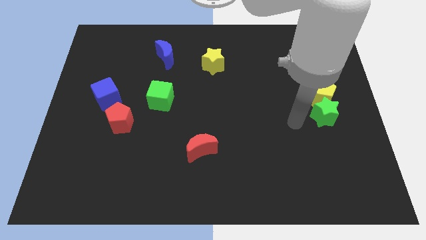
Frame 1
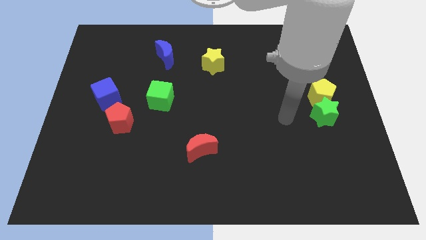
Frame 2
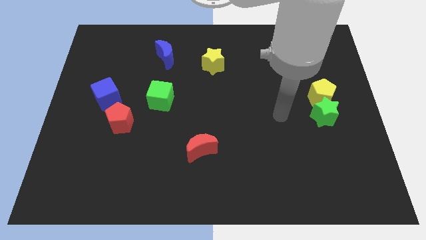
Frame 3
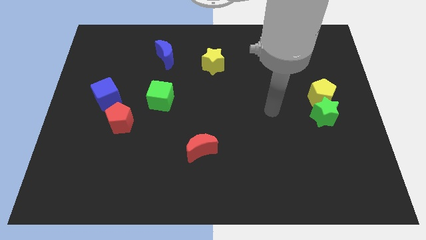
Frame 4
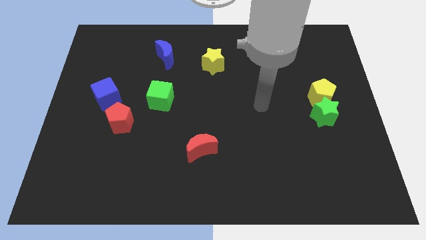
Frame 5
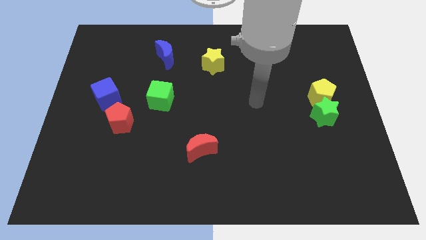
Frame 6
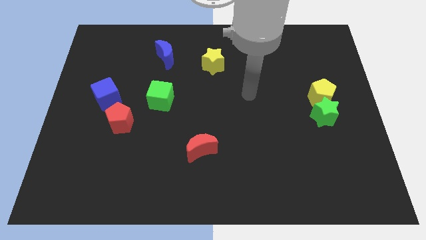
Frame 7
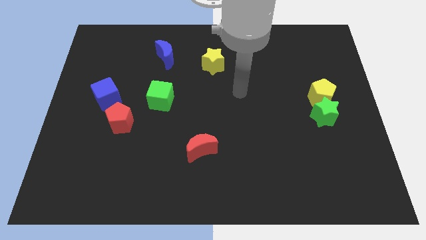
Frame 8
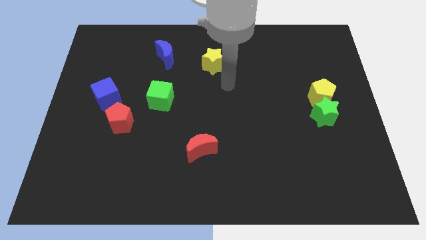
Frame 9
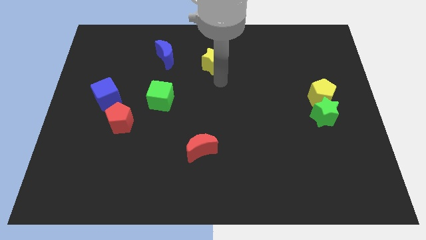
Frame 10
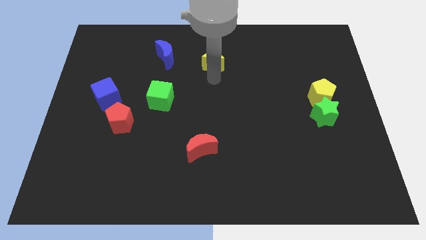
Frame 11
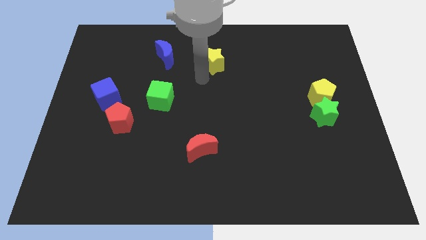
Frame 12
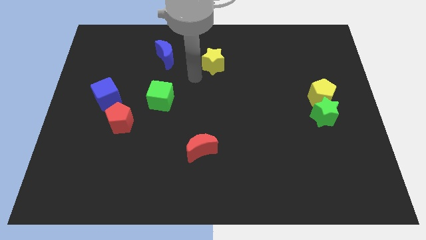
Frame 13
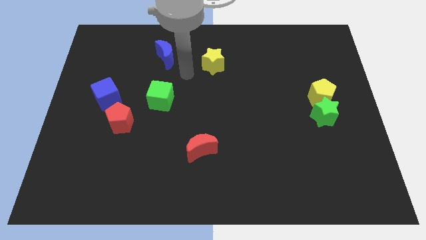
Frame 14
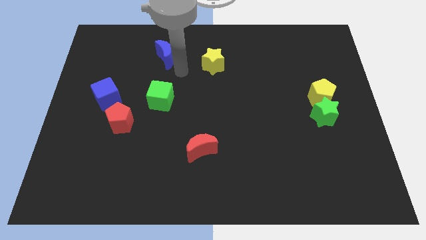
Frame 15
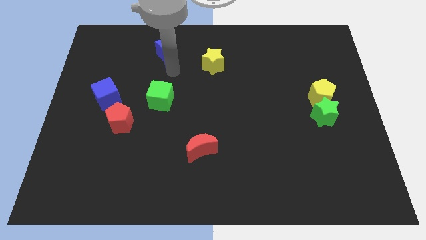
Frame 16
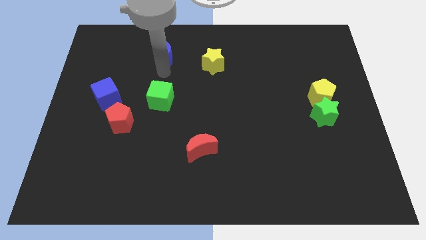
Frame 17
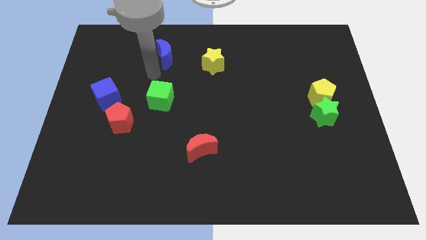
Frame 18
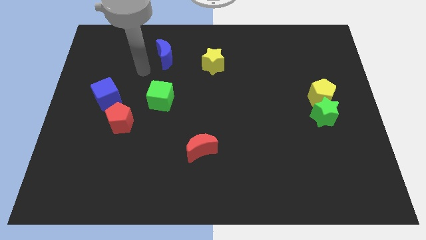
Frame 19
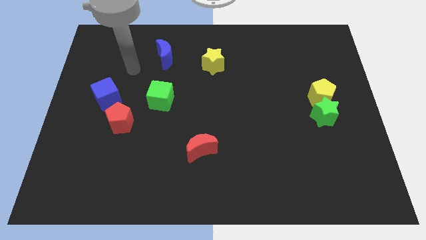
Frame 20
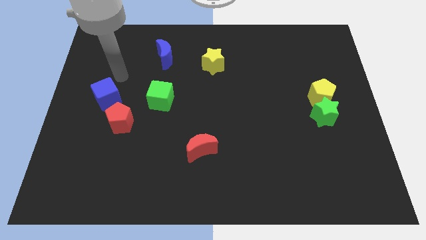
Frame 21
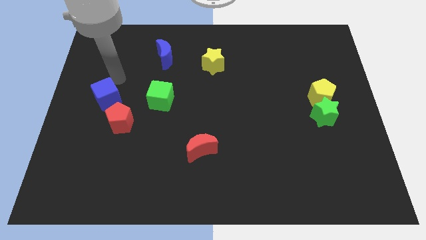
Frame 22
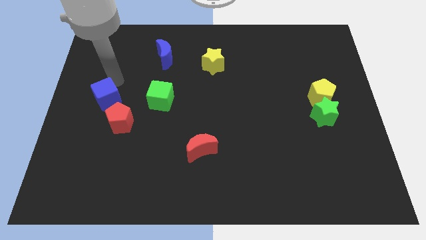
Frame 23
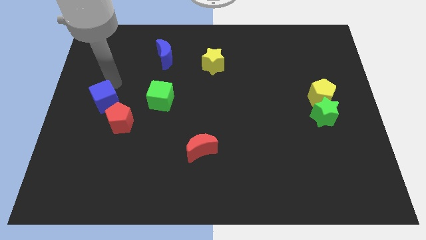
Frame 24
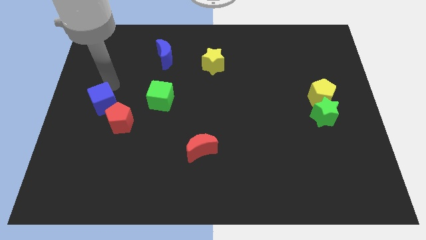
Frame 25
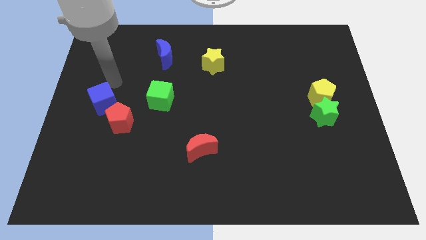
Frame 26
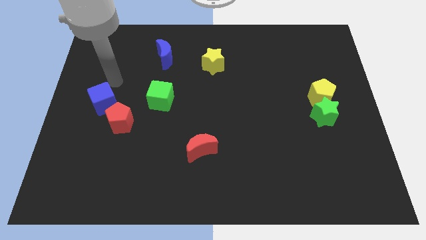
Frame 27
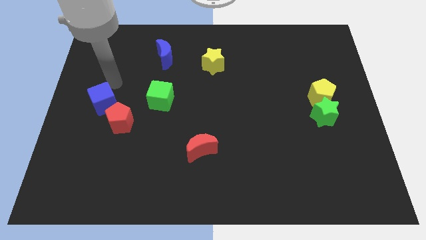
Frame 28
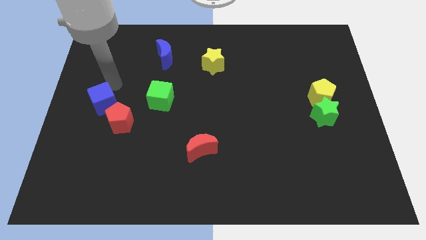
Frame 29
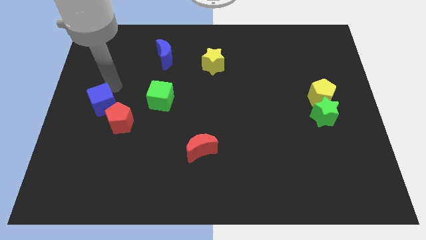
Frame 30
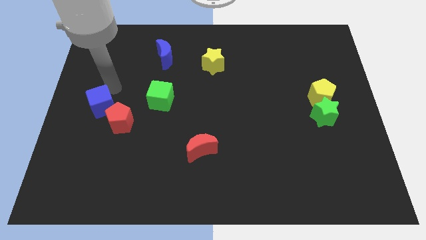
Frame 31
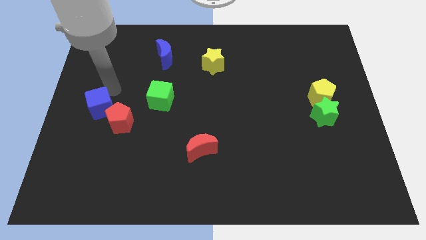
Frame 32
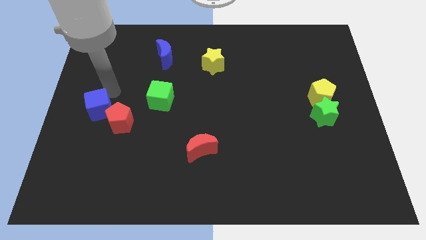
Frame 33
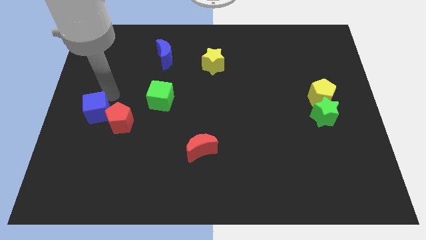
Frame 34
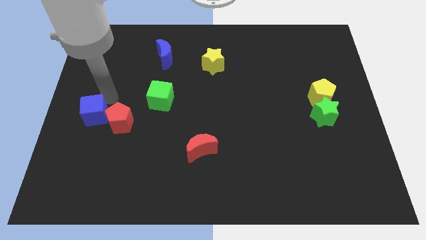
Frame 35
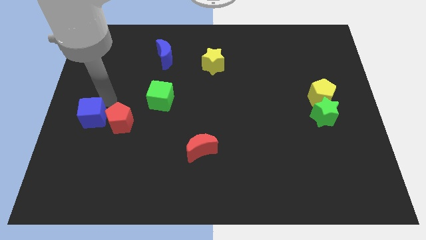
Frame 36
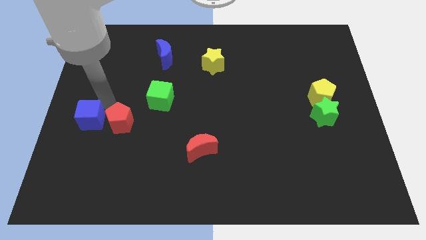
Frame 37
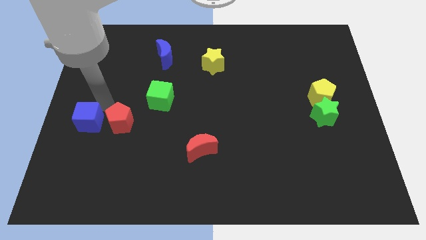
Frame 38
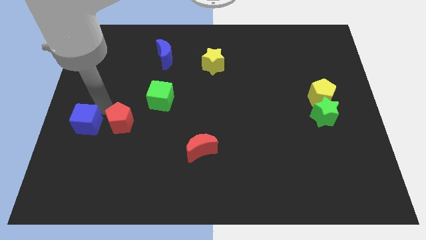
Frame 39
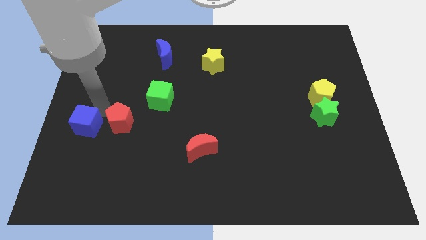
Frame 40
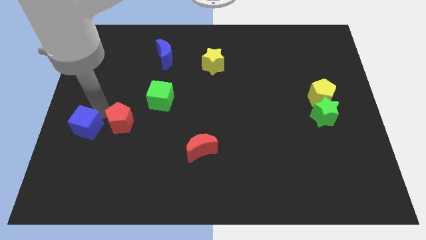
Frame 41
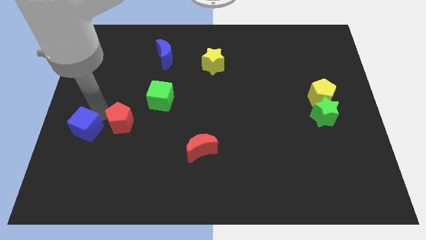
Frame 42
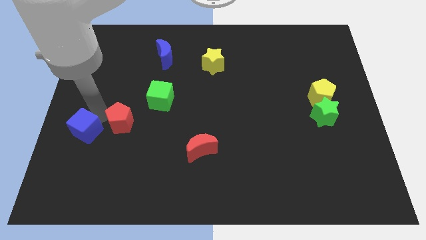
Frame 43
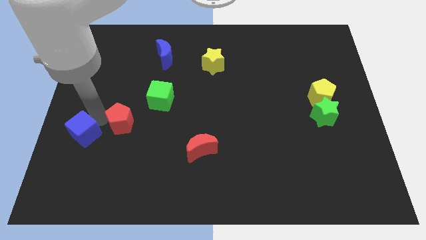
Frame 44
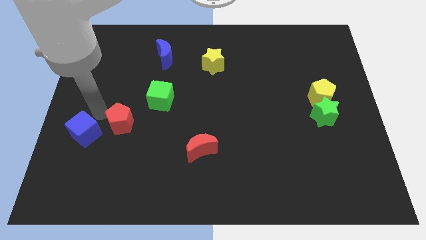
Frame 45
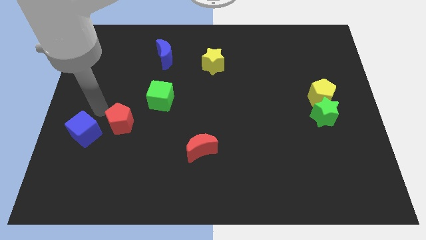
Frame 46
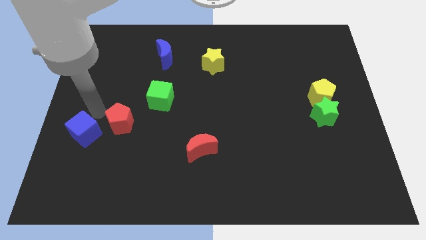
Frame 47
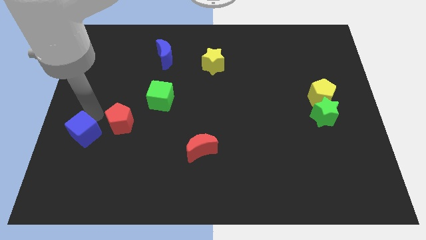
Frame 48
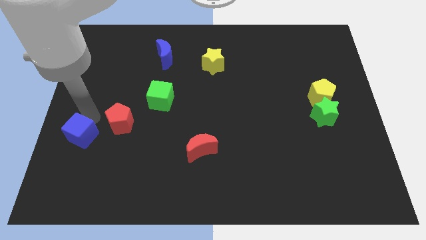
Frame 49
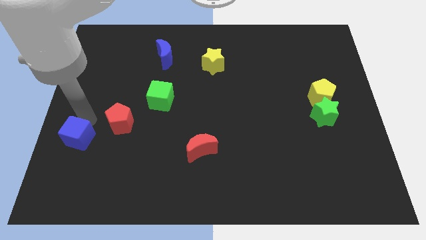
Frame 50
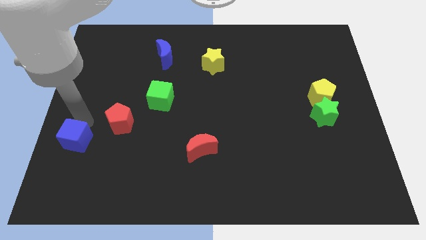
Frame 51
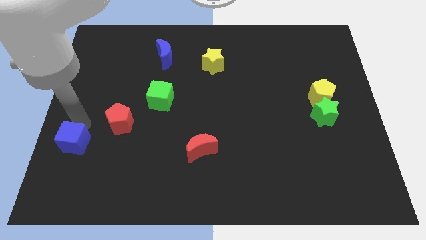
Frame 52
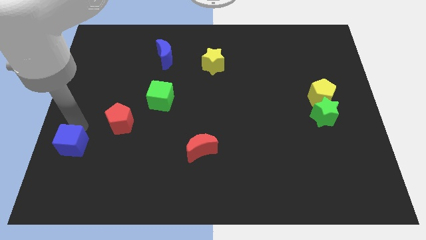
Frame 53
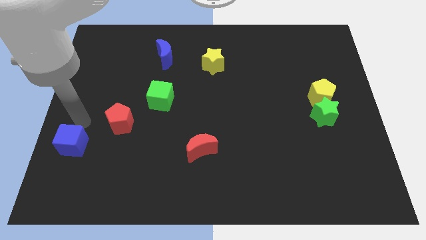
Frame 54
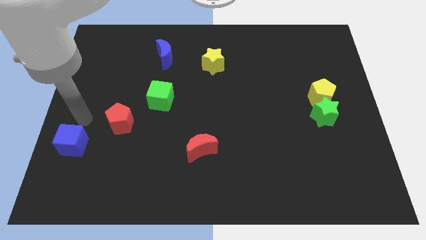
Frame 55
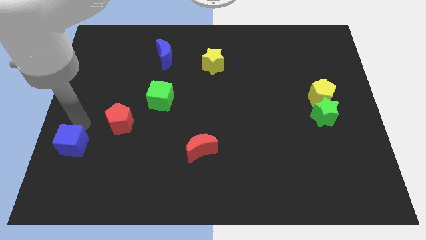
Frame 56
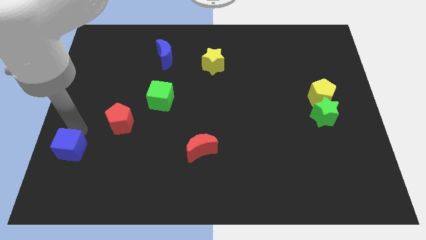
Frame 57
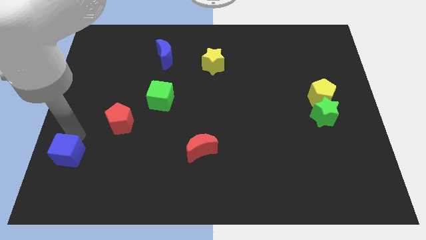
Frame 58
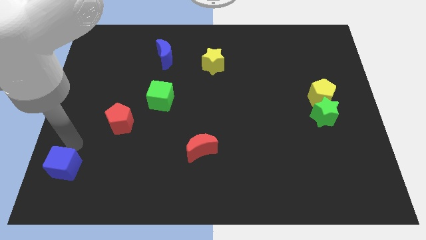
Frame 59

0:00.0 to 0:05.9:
push the blue cube to the bottom left
